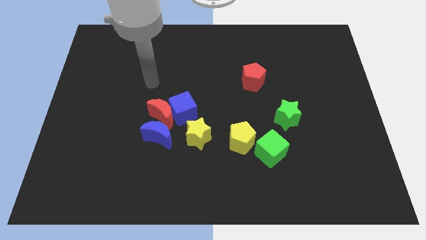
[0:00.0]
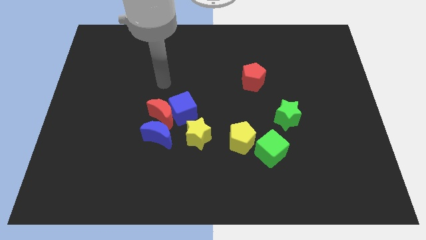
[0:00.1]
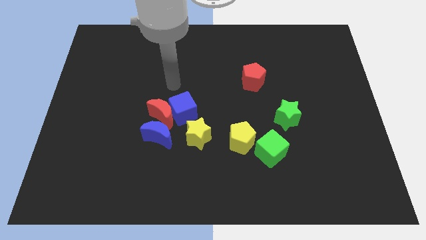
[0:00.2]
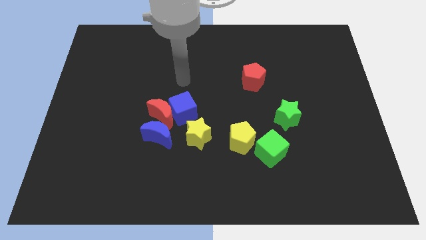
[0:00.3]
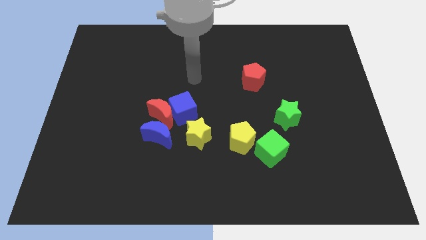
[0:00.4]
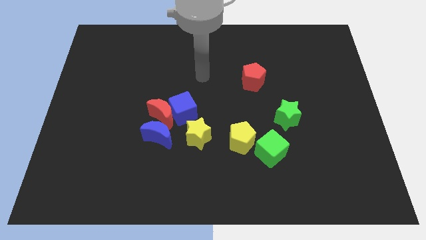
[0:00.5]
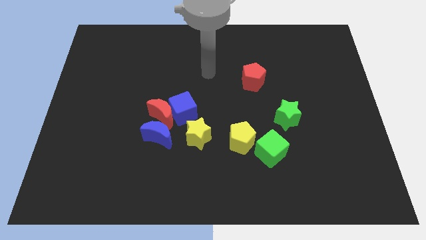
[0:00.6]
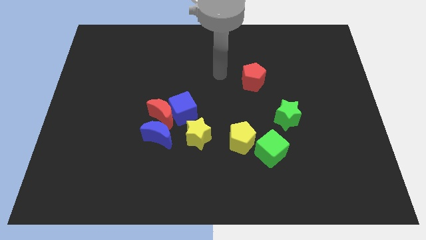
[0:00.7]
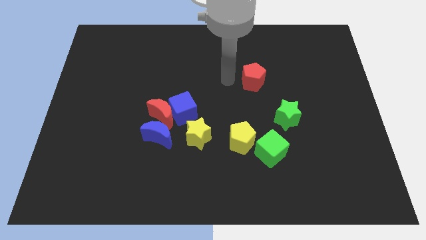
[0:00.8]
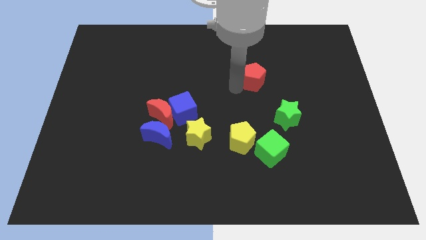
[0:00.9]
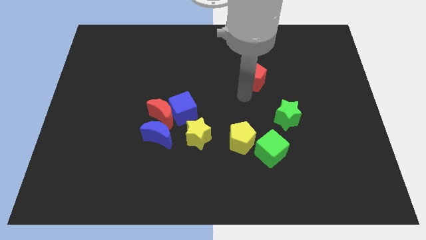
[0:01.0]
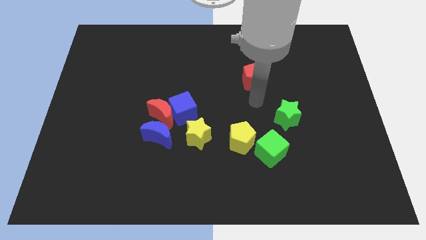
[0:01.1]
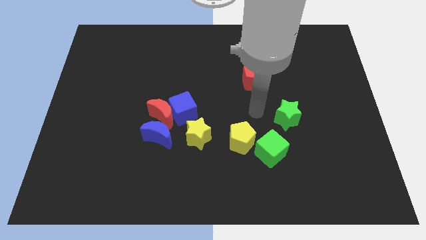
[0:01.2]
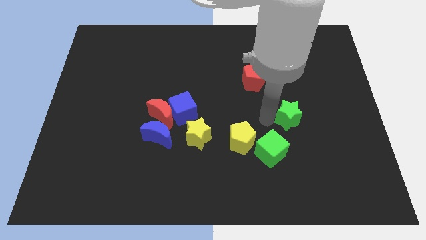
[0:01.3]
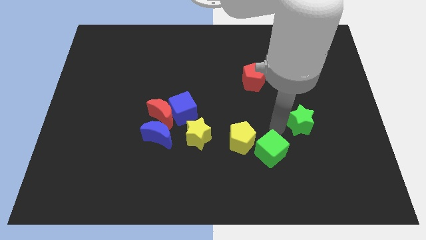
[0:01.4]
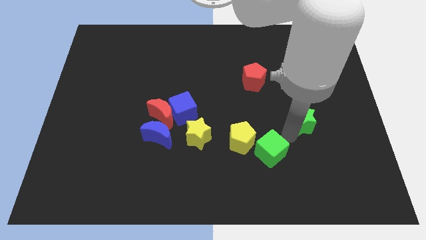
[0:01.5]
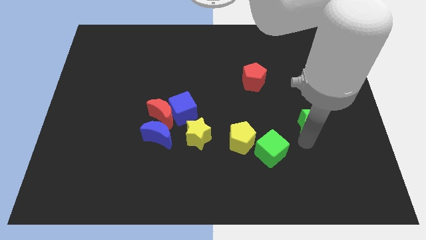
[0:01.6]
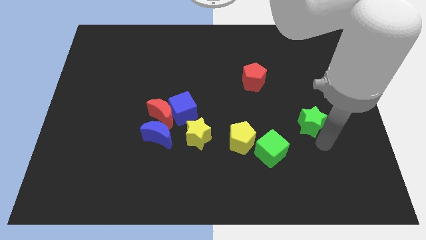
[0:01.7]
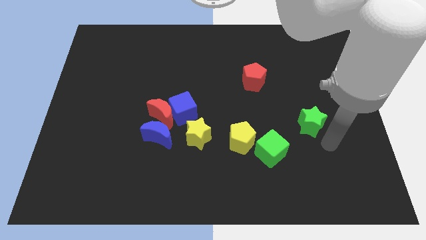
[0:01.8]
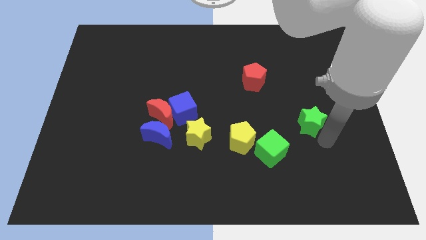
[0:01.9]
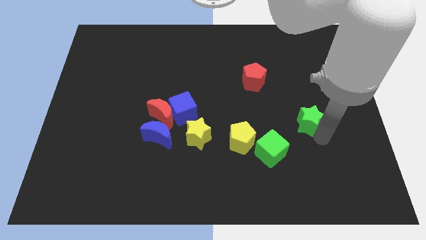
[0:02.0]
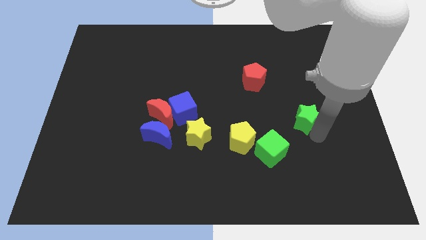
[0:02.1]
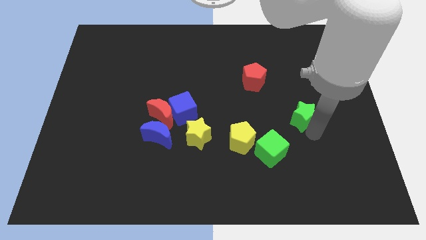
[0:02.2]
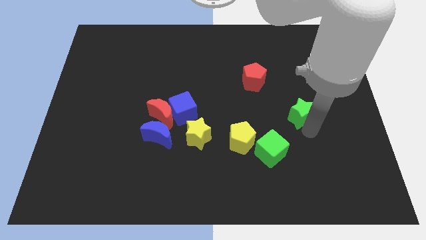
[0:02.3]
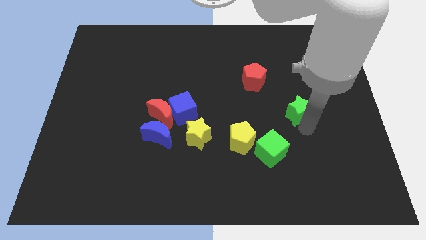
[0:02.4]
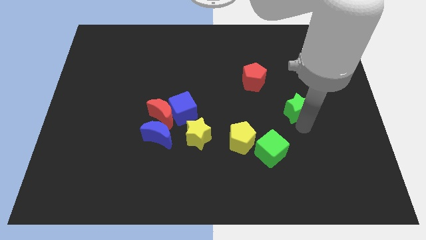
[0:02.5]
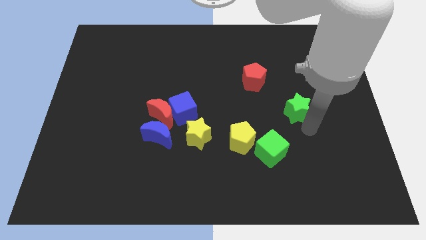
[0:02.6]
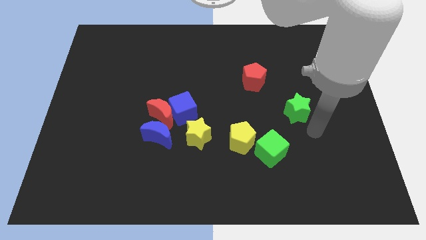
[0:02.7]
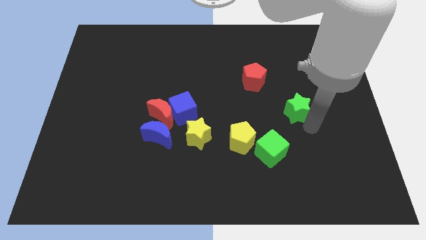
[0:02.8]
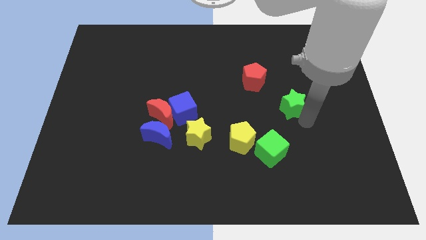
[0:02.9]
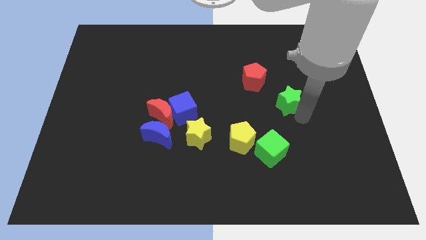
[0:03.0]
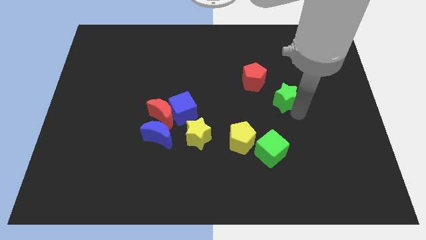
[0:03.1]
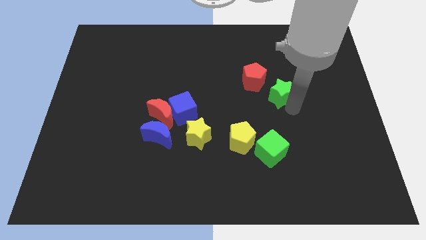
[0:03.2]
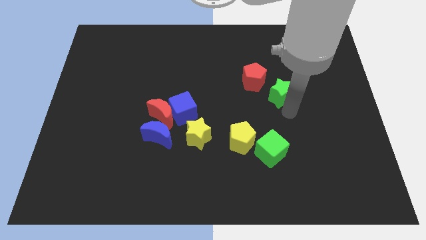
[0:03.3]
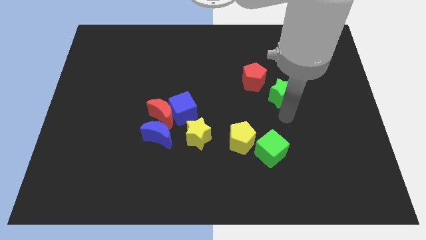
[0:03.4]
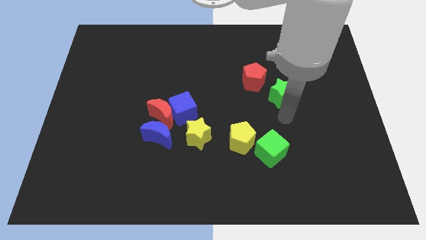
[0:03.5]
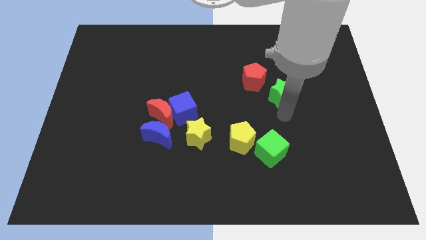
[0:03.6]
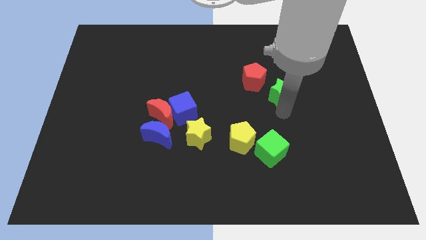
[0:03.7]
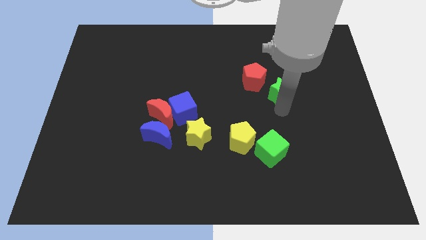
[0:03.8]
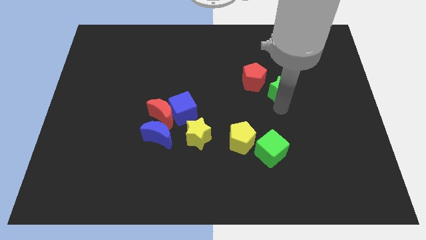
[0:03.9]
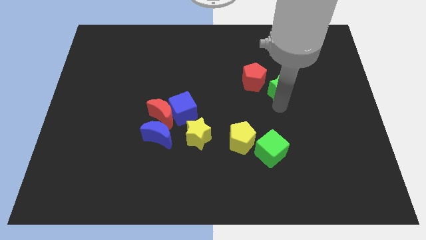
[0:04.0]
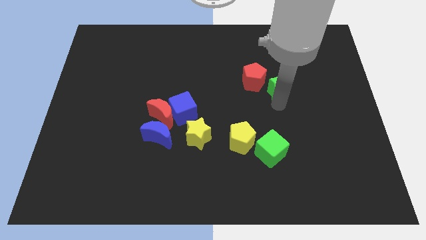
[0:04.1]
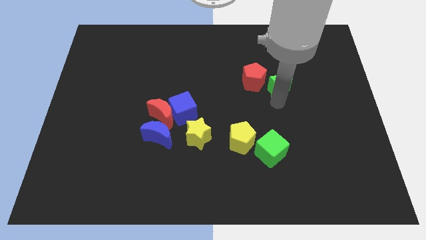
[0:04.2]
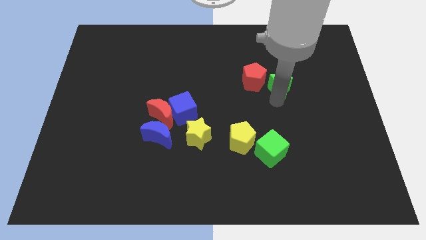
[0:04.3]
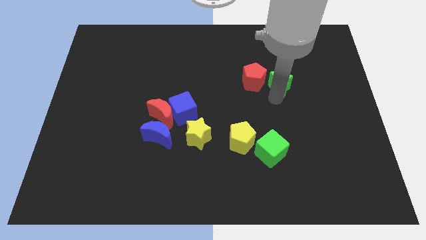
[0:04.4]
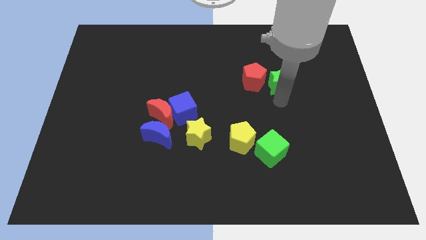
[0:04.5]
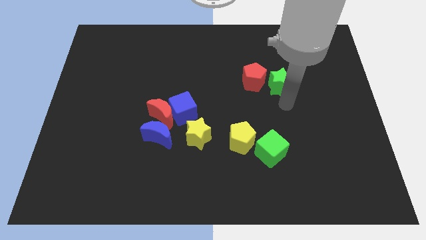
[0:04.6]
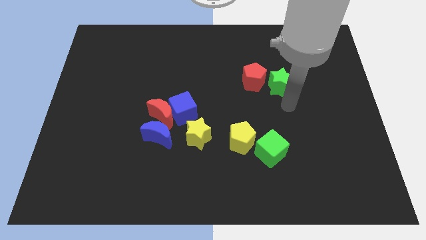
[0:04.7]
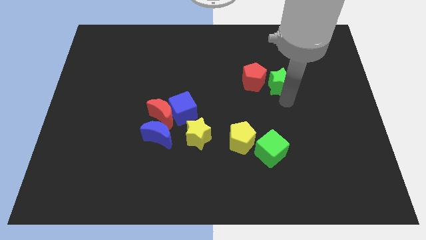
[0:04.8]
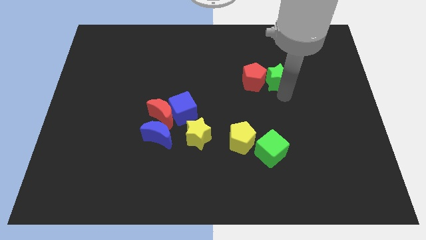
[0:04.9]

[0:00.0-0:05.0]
push the green star to the top right side of the red pentagon

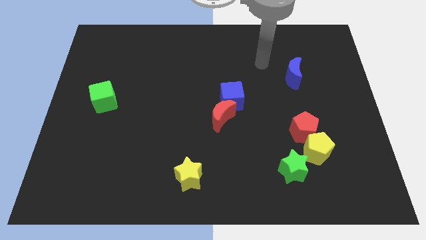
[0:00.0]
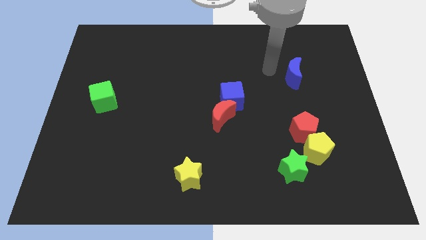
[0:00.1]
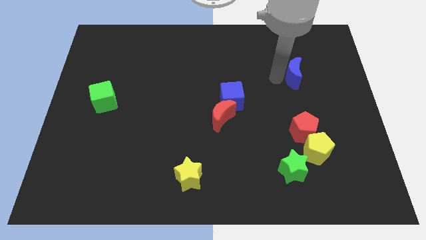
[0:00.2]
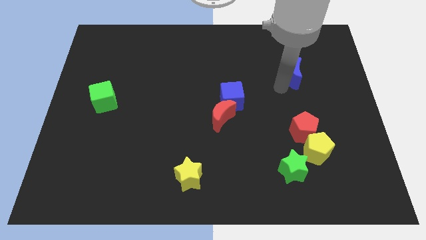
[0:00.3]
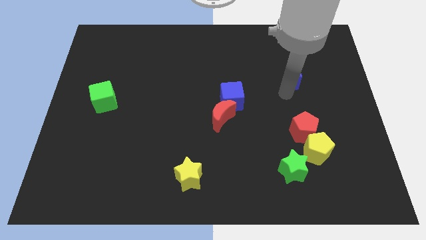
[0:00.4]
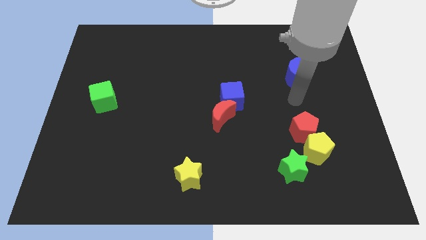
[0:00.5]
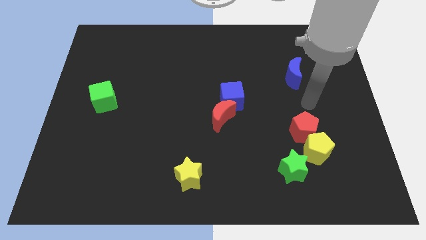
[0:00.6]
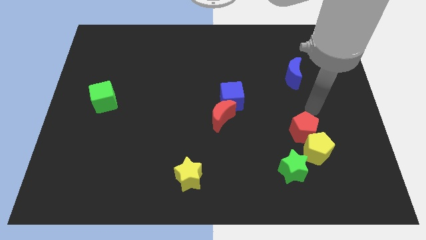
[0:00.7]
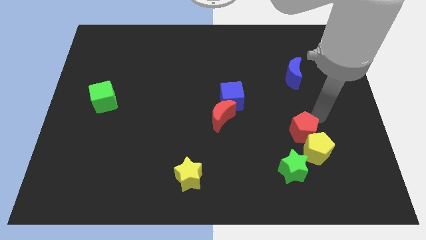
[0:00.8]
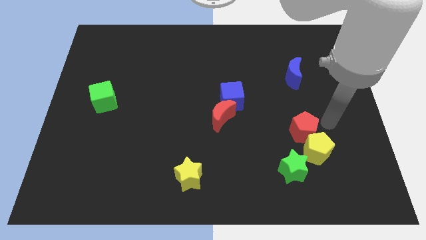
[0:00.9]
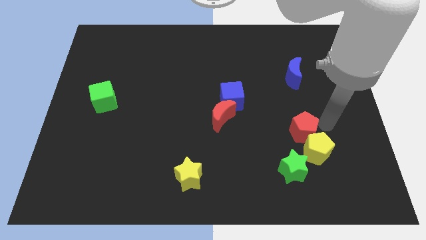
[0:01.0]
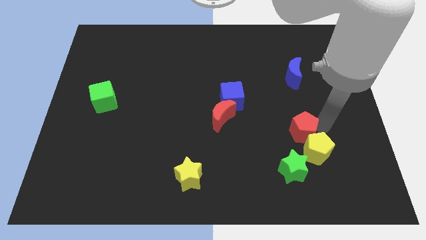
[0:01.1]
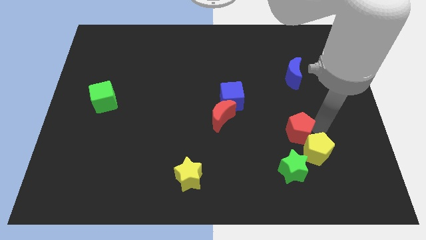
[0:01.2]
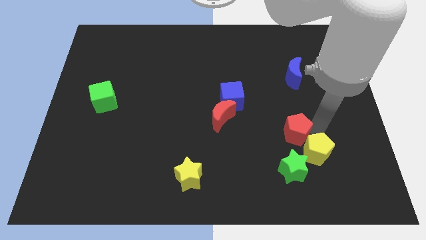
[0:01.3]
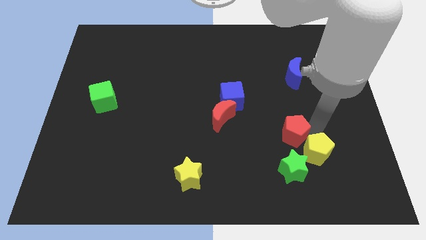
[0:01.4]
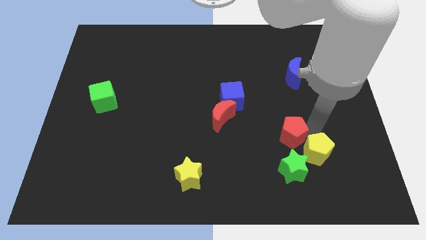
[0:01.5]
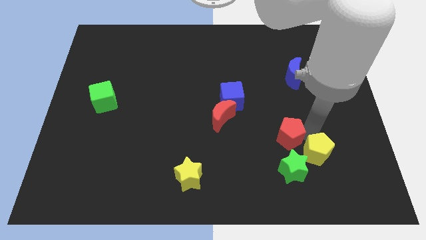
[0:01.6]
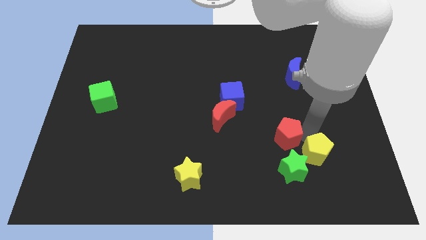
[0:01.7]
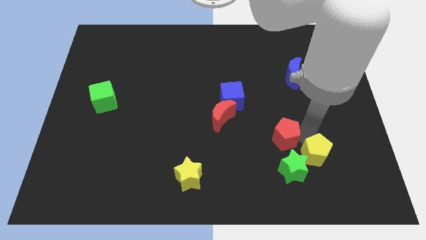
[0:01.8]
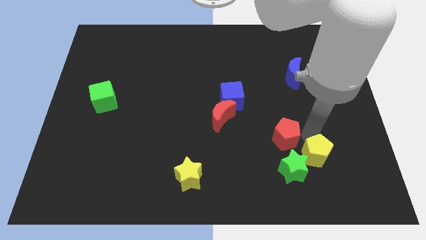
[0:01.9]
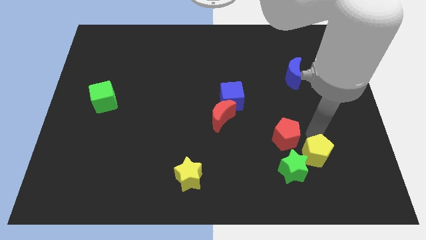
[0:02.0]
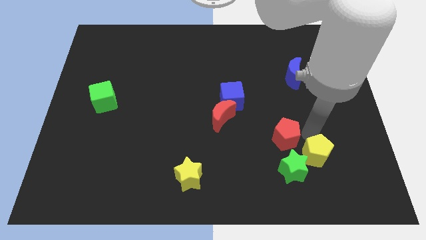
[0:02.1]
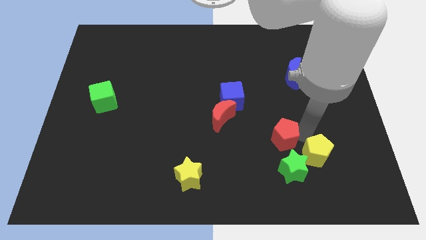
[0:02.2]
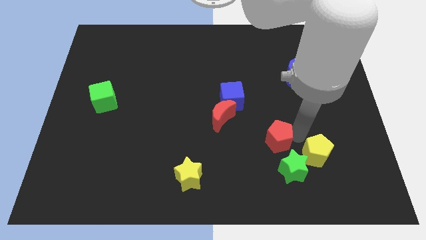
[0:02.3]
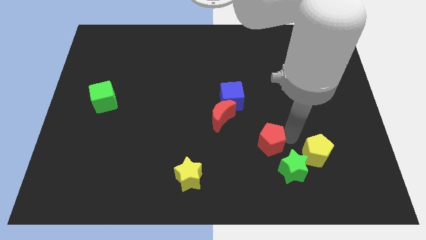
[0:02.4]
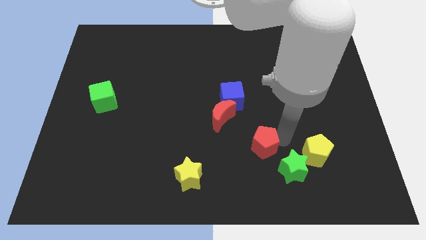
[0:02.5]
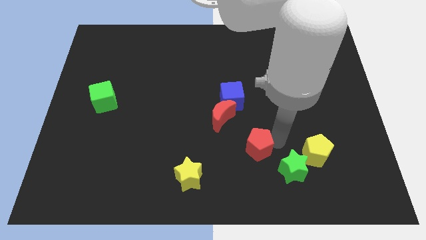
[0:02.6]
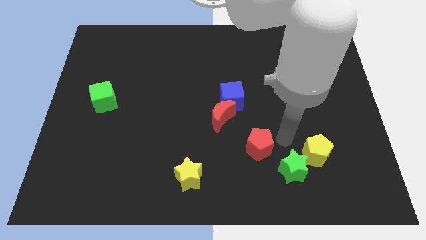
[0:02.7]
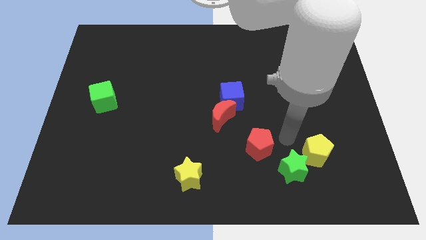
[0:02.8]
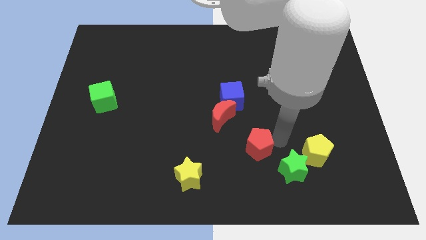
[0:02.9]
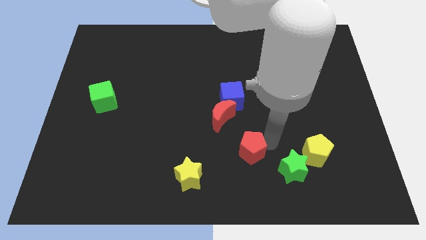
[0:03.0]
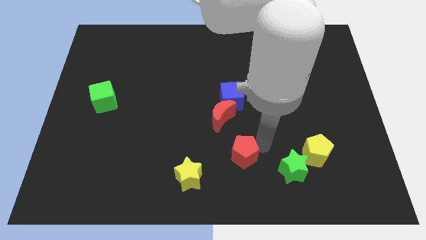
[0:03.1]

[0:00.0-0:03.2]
slide the red pentagon to the bottom of the red moon
